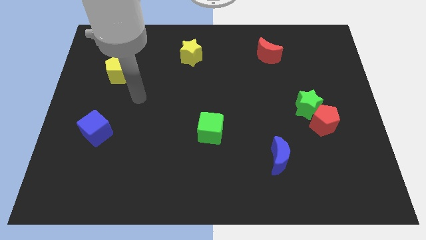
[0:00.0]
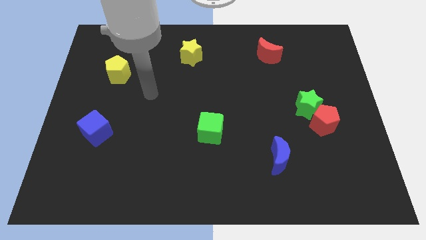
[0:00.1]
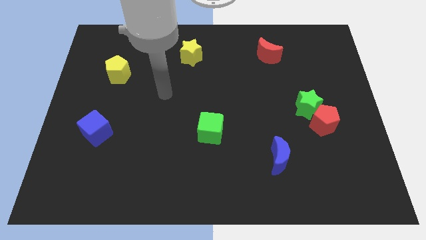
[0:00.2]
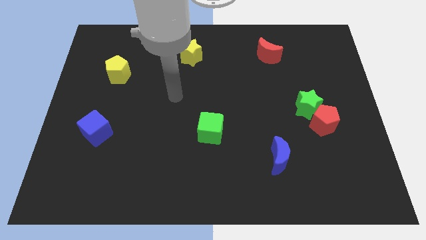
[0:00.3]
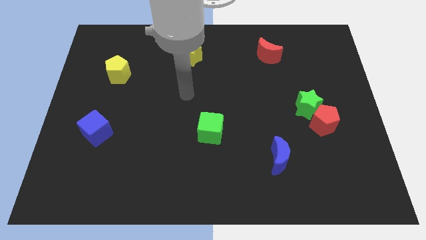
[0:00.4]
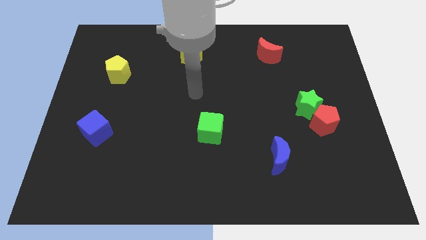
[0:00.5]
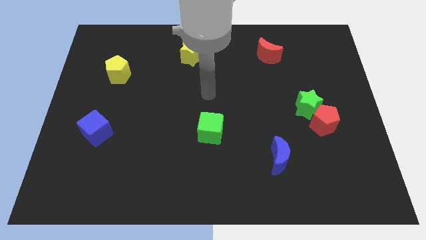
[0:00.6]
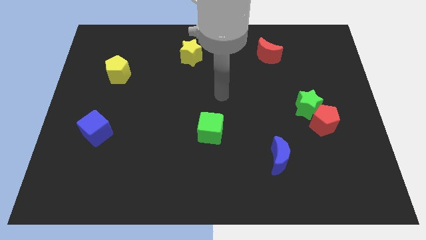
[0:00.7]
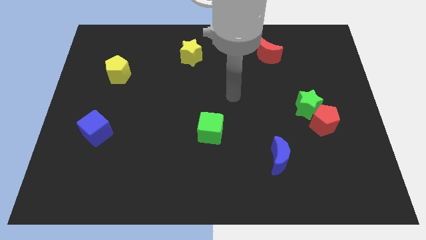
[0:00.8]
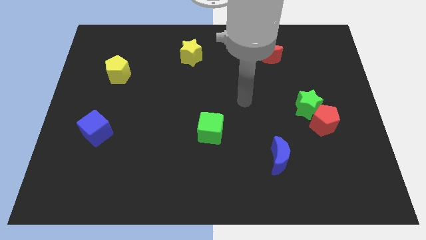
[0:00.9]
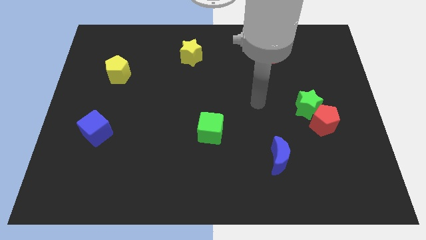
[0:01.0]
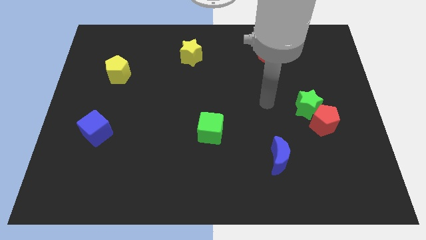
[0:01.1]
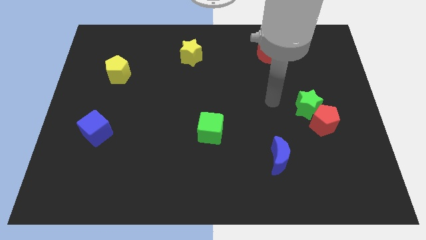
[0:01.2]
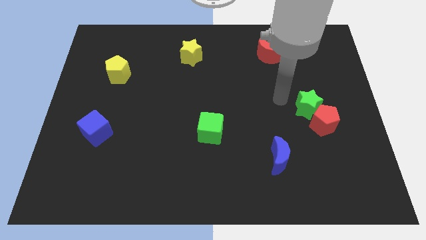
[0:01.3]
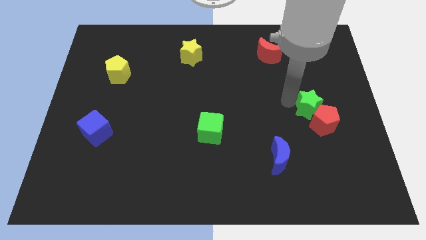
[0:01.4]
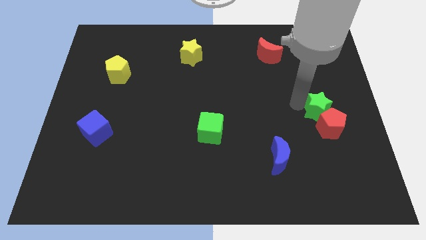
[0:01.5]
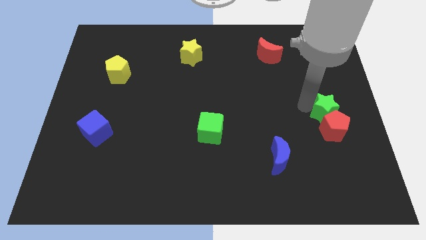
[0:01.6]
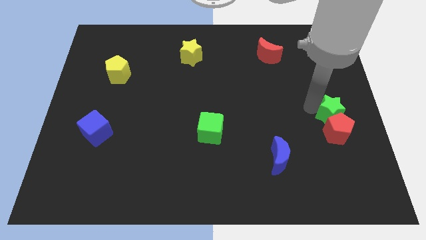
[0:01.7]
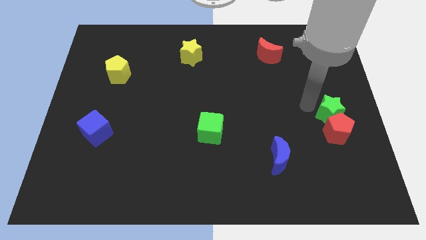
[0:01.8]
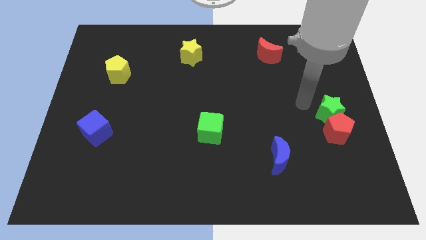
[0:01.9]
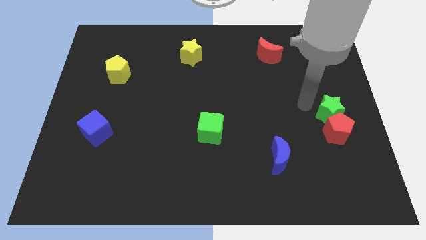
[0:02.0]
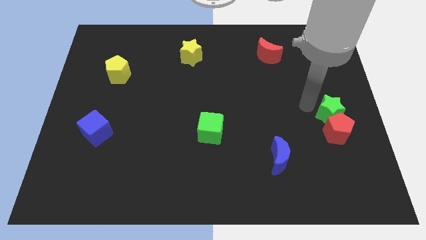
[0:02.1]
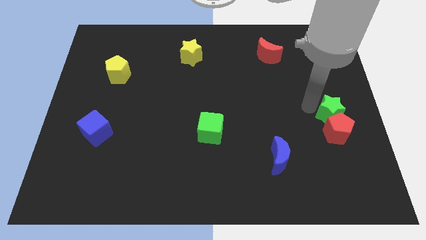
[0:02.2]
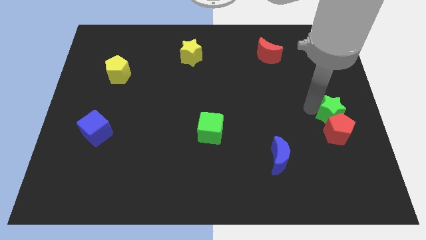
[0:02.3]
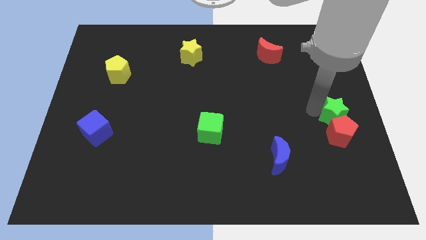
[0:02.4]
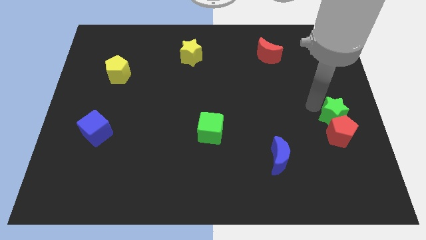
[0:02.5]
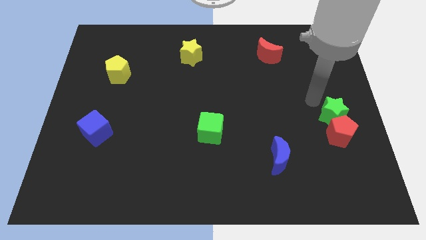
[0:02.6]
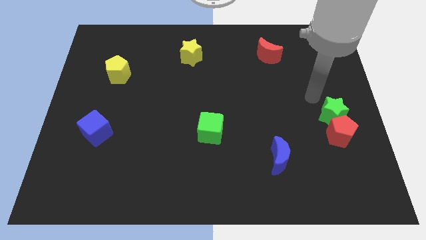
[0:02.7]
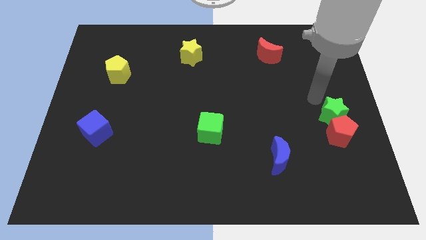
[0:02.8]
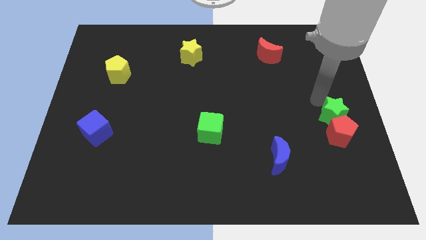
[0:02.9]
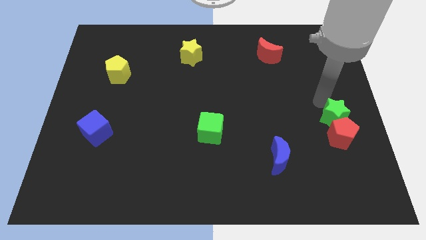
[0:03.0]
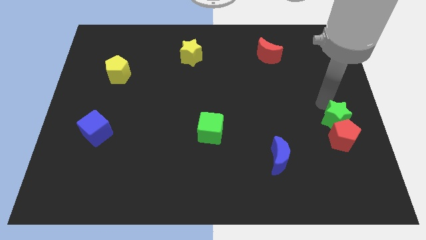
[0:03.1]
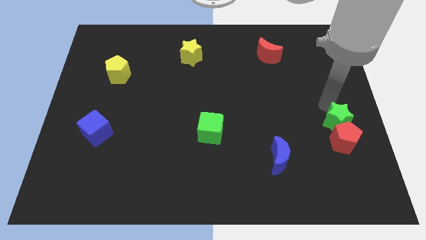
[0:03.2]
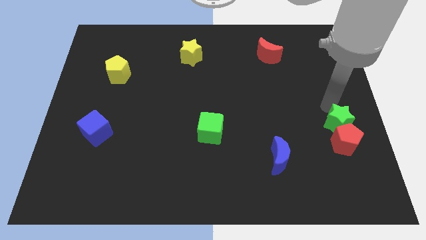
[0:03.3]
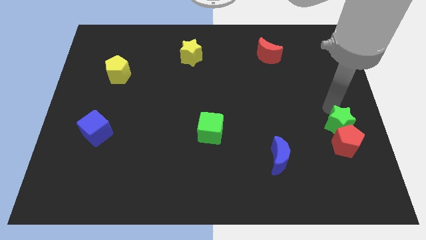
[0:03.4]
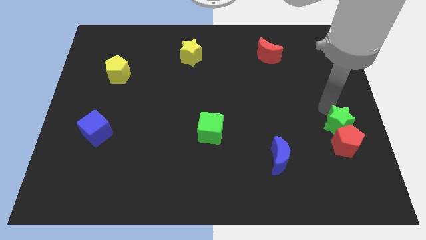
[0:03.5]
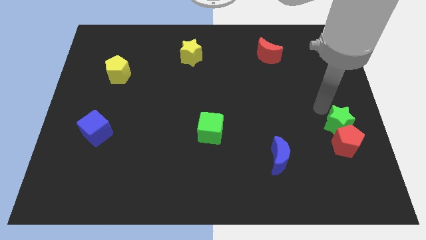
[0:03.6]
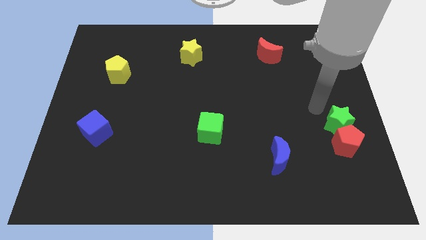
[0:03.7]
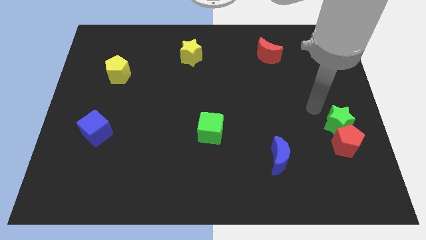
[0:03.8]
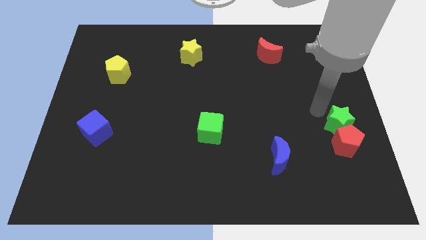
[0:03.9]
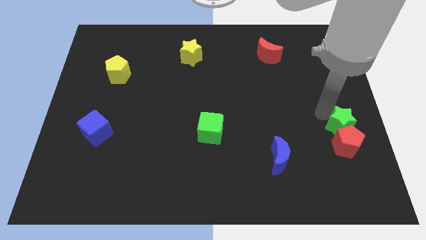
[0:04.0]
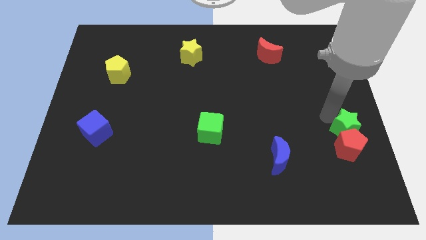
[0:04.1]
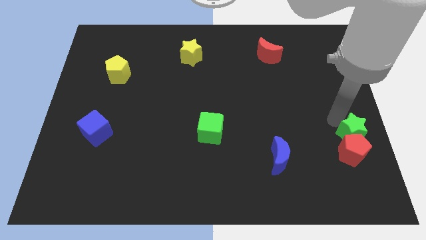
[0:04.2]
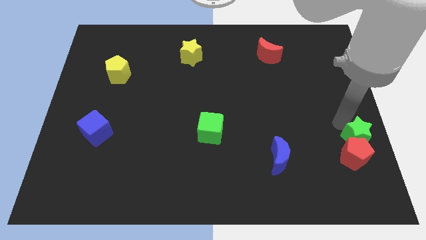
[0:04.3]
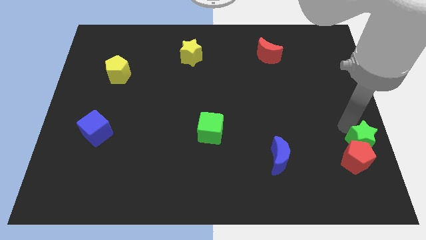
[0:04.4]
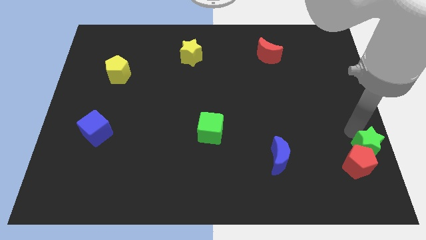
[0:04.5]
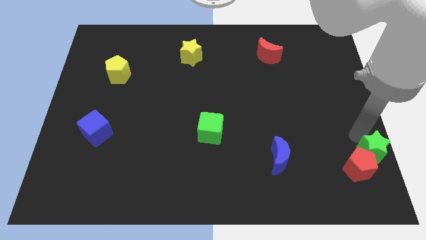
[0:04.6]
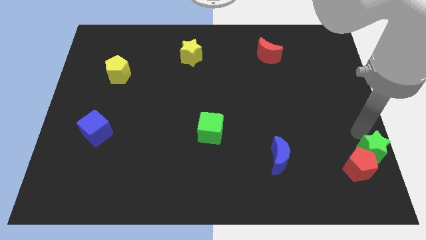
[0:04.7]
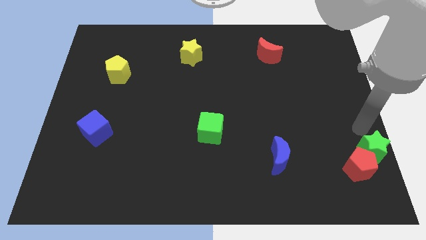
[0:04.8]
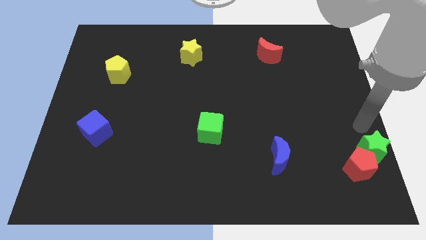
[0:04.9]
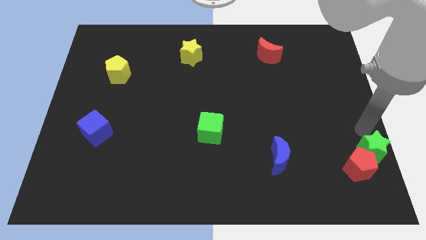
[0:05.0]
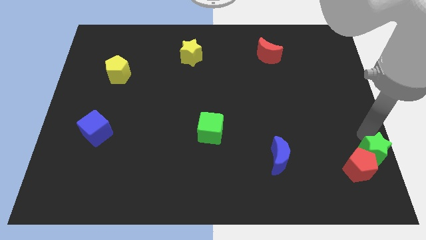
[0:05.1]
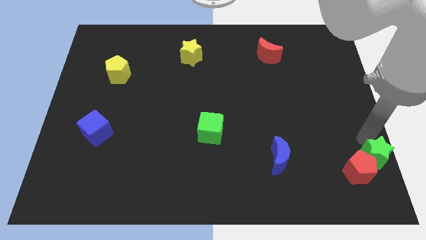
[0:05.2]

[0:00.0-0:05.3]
put the green star to the bottom right corner
